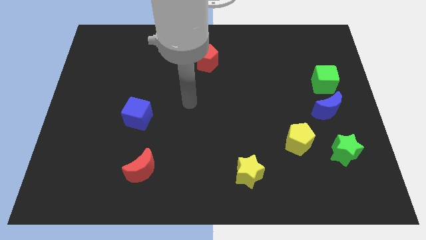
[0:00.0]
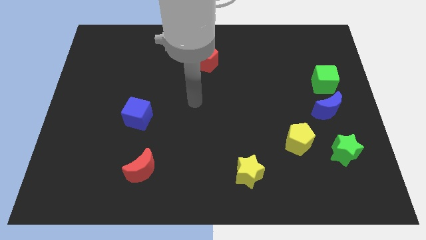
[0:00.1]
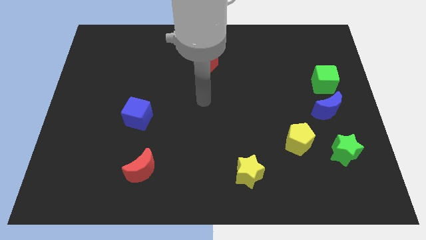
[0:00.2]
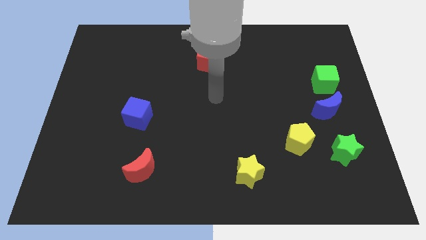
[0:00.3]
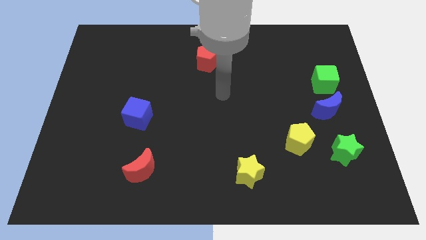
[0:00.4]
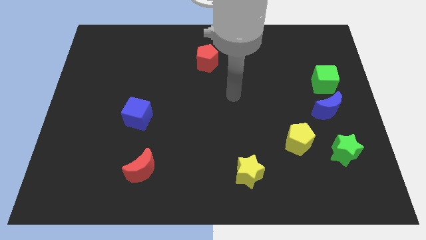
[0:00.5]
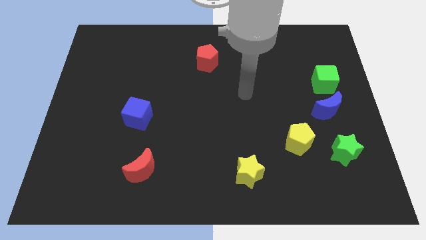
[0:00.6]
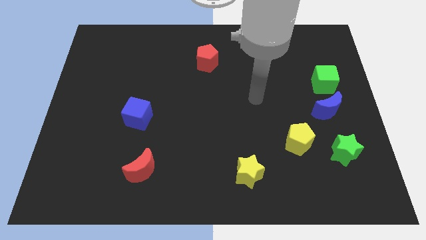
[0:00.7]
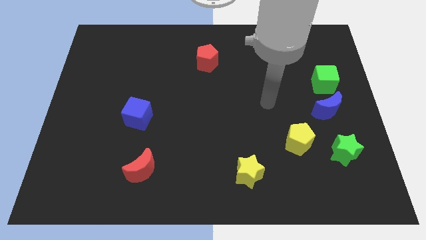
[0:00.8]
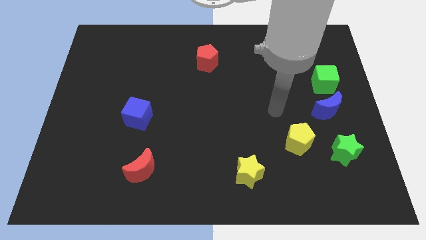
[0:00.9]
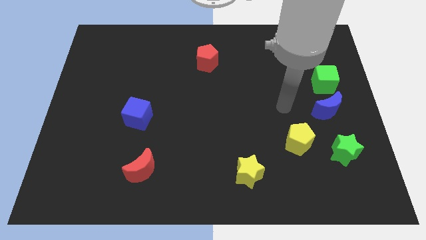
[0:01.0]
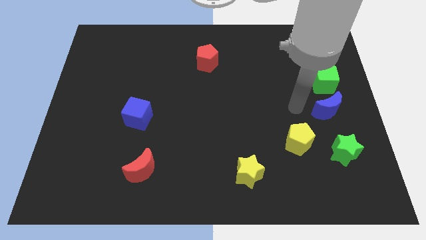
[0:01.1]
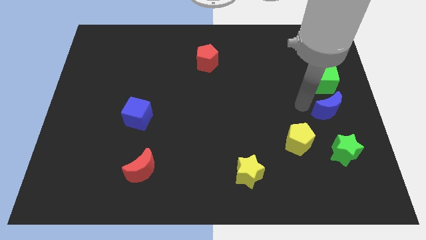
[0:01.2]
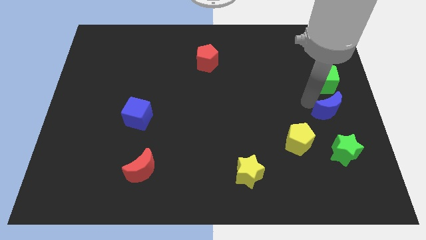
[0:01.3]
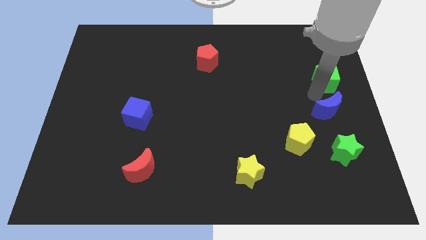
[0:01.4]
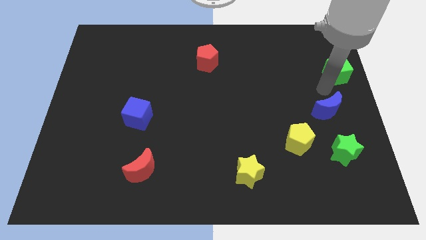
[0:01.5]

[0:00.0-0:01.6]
pull the blue moon apart from the green cube

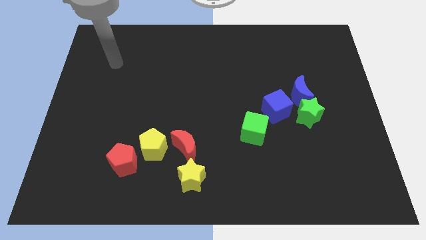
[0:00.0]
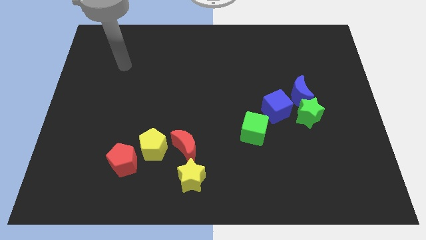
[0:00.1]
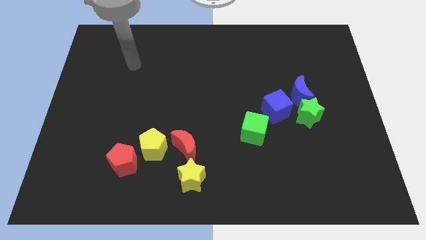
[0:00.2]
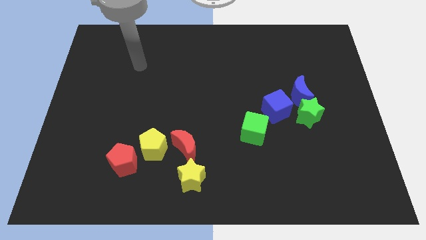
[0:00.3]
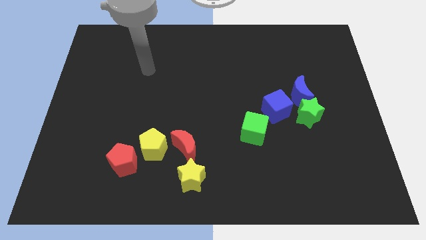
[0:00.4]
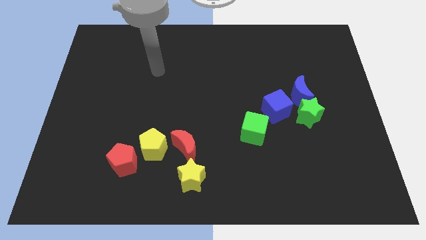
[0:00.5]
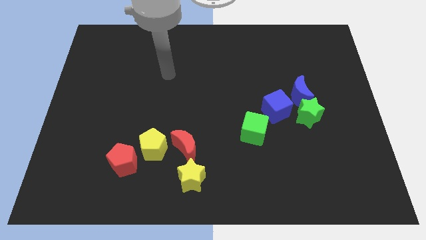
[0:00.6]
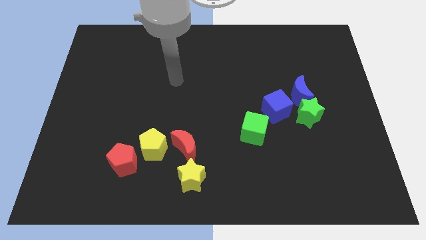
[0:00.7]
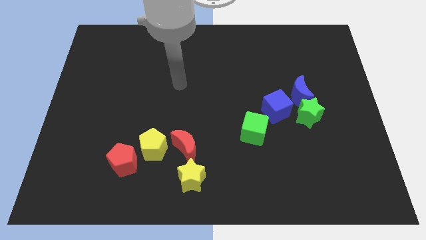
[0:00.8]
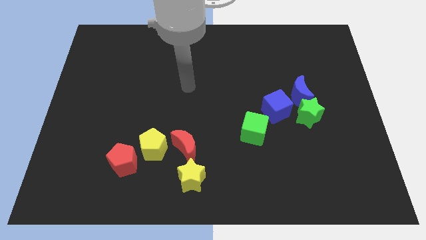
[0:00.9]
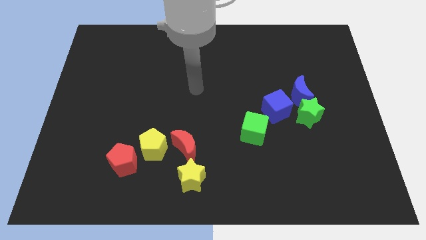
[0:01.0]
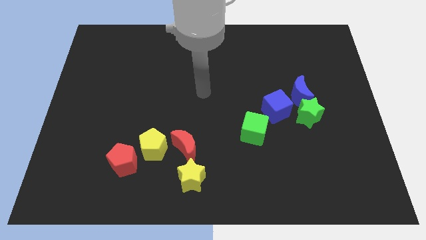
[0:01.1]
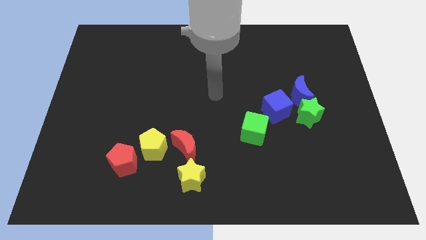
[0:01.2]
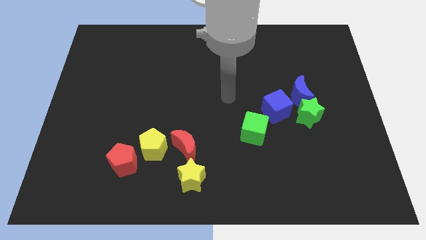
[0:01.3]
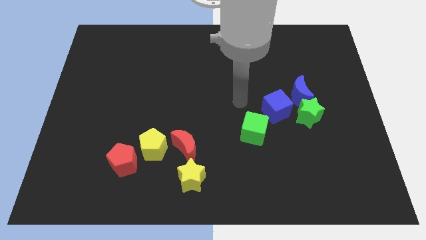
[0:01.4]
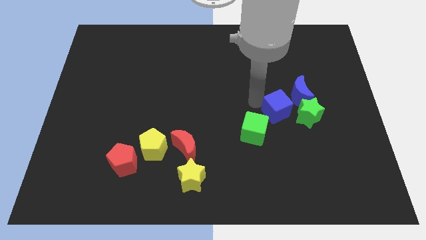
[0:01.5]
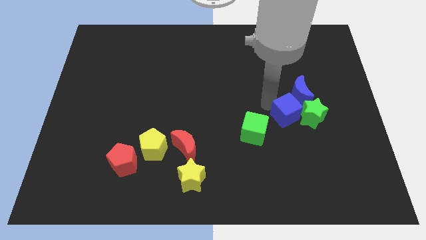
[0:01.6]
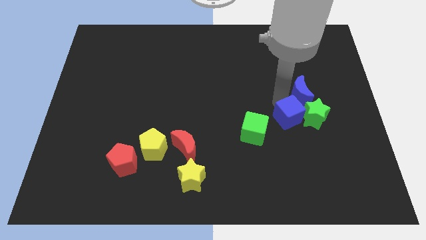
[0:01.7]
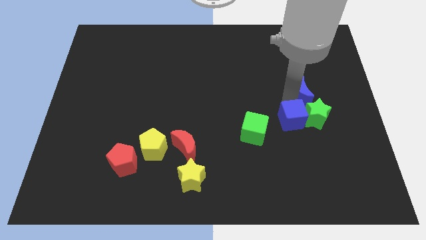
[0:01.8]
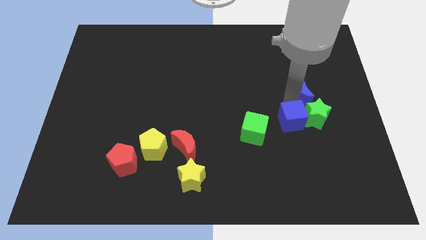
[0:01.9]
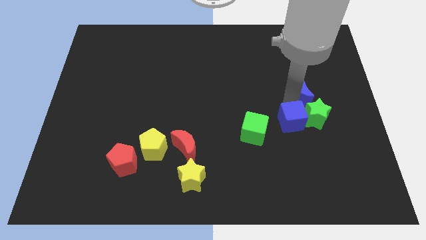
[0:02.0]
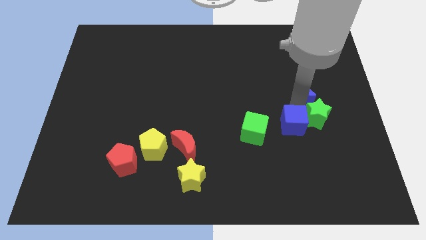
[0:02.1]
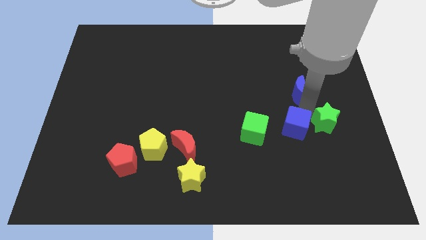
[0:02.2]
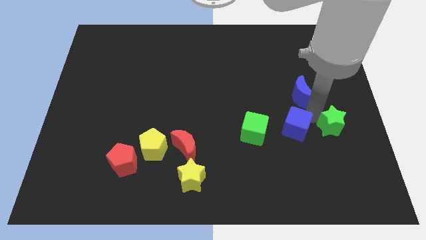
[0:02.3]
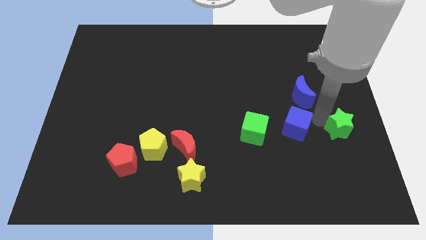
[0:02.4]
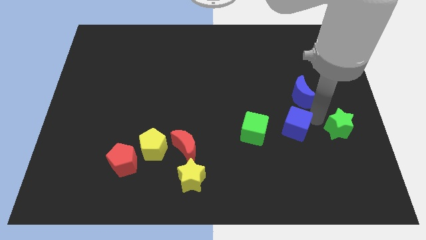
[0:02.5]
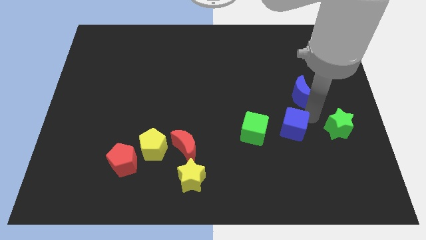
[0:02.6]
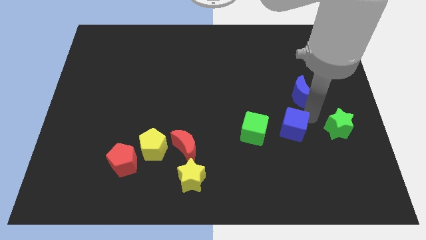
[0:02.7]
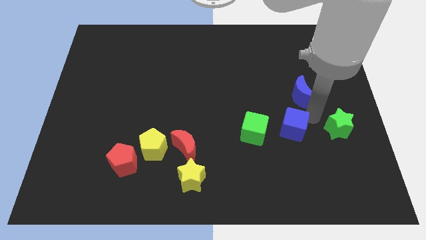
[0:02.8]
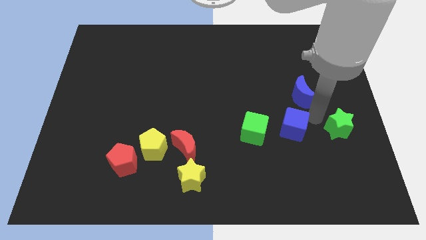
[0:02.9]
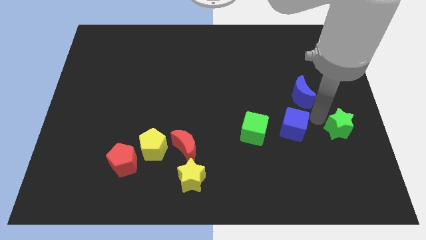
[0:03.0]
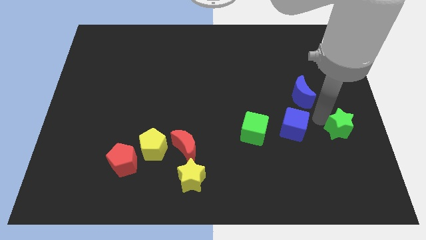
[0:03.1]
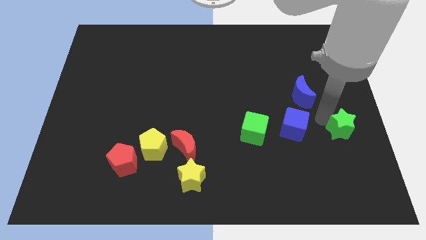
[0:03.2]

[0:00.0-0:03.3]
separate the green star from the blue moon and blue cube

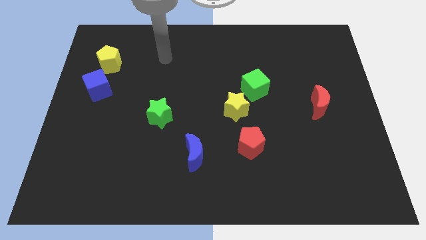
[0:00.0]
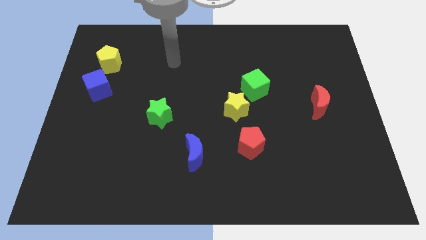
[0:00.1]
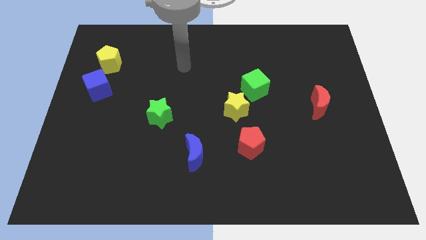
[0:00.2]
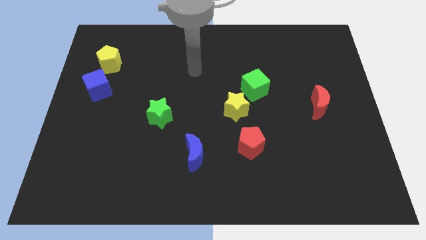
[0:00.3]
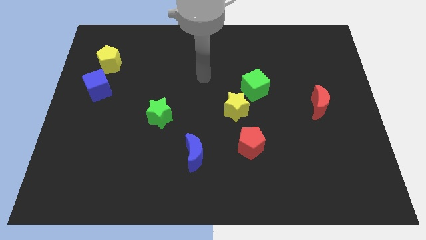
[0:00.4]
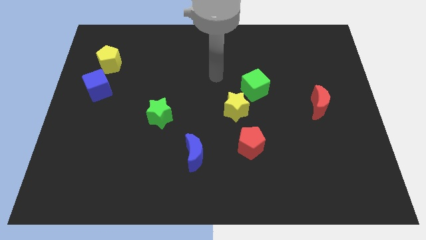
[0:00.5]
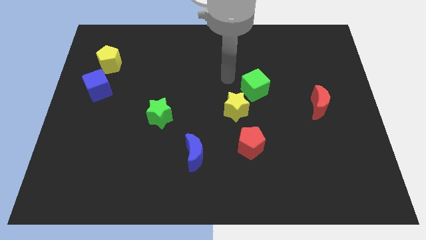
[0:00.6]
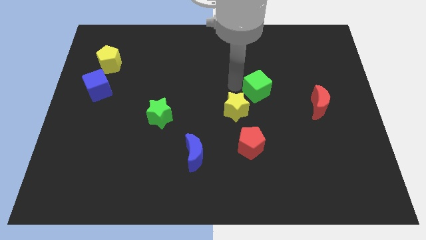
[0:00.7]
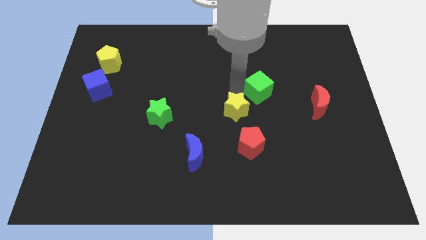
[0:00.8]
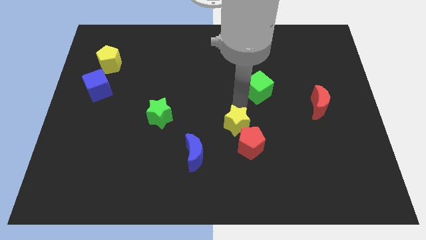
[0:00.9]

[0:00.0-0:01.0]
move the green cube away from the yellow star

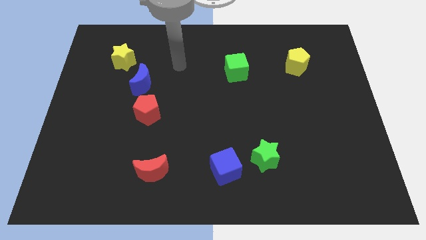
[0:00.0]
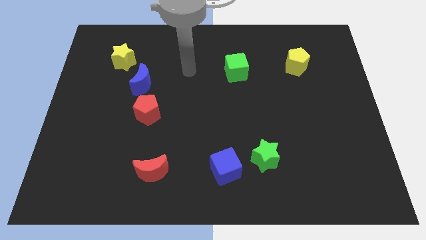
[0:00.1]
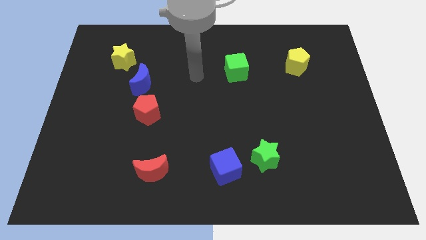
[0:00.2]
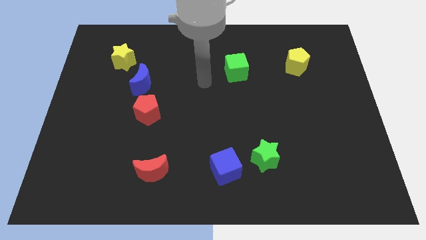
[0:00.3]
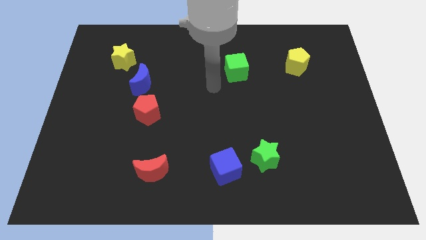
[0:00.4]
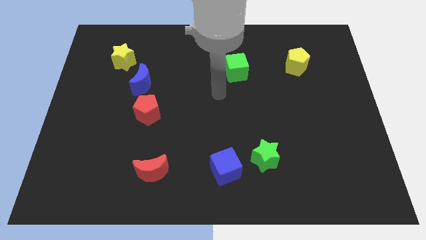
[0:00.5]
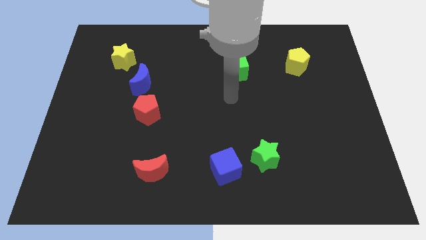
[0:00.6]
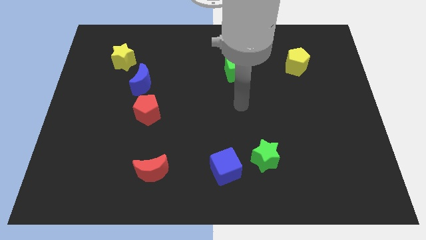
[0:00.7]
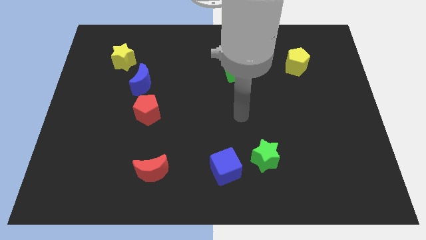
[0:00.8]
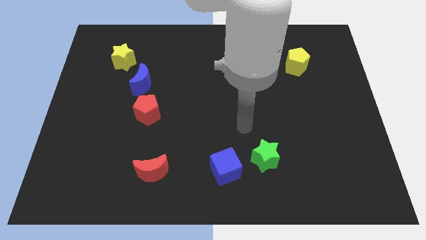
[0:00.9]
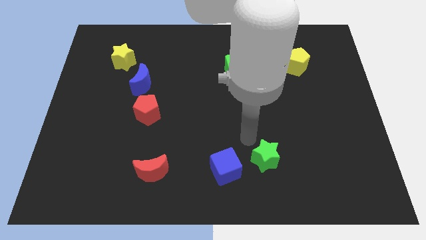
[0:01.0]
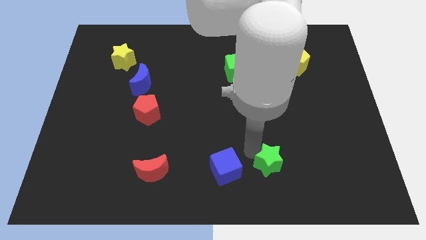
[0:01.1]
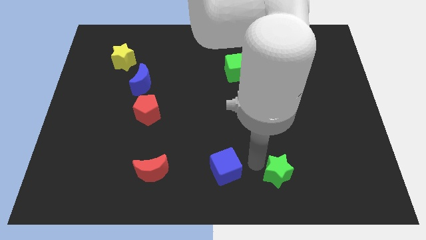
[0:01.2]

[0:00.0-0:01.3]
pull the blue cube apart from the green star

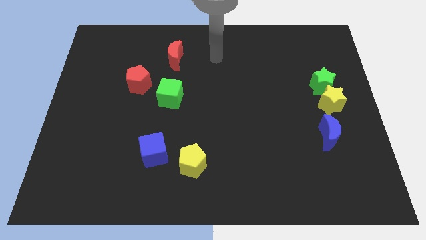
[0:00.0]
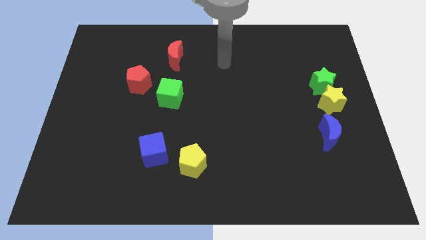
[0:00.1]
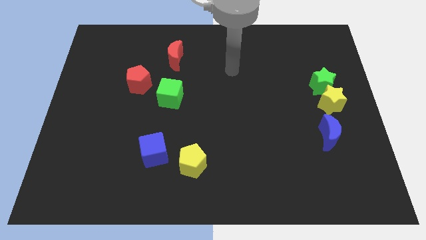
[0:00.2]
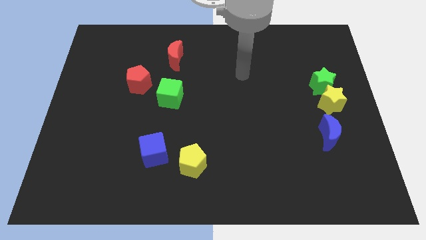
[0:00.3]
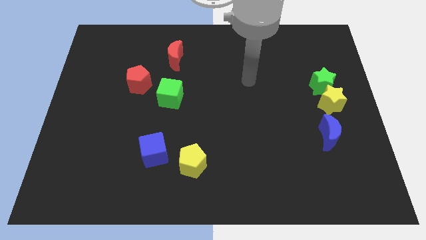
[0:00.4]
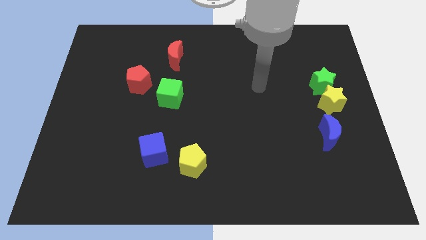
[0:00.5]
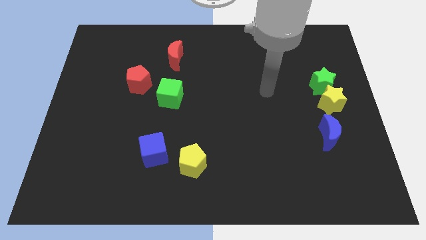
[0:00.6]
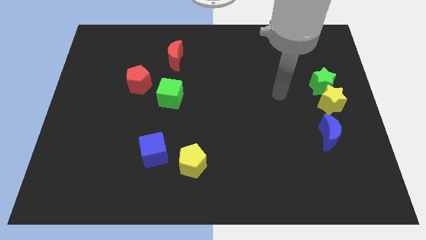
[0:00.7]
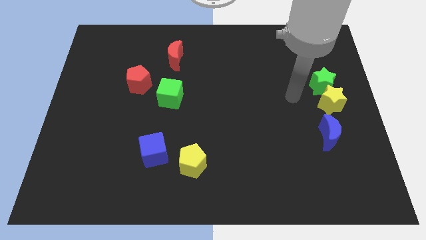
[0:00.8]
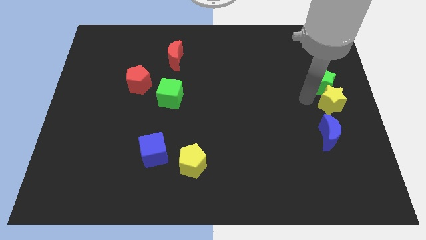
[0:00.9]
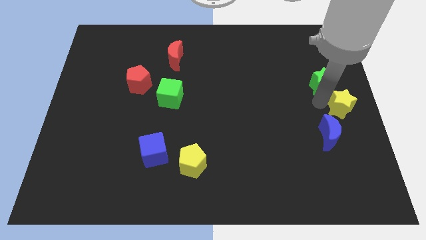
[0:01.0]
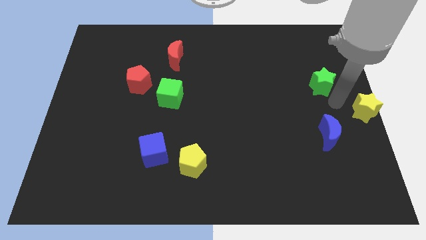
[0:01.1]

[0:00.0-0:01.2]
move the green star away from the yellow star

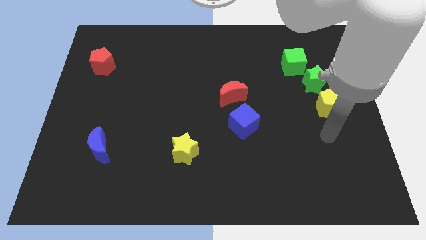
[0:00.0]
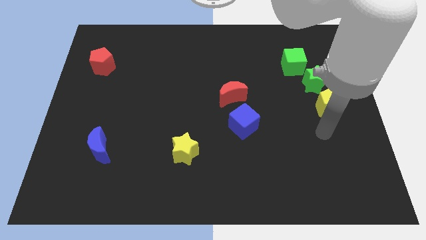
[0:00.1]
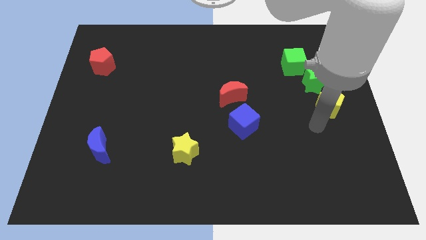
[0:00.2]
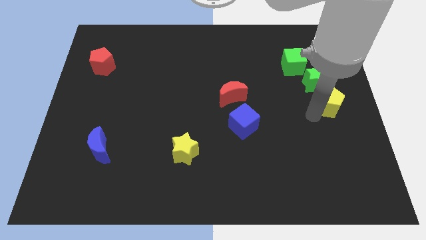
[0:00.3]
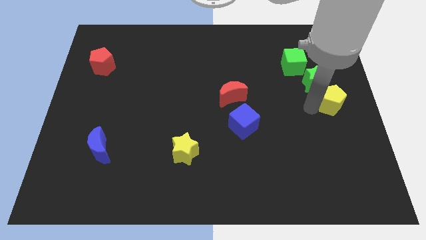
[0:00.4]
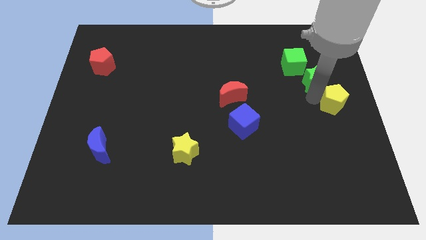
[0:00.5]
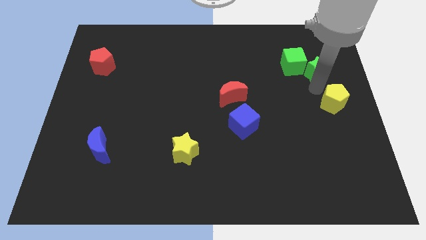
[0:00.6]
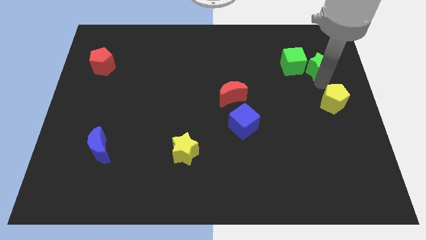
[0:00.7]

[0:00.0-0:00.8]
pull the yellow pentagon apart from the green star
